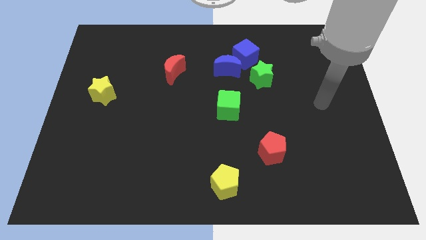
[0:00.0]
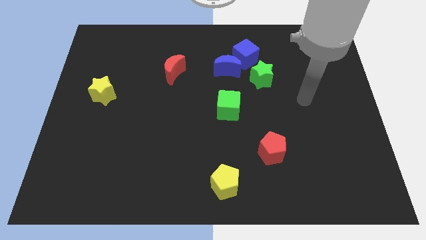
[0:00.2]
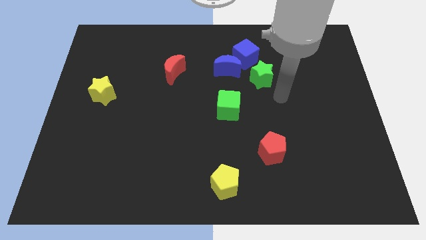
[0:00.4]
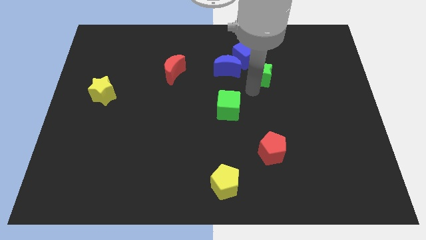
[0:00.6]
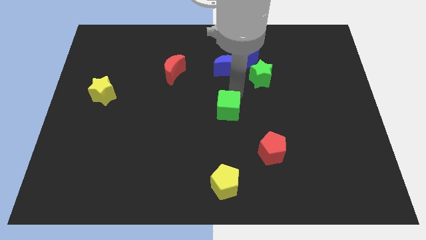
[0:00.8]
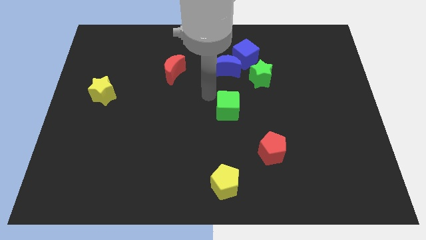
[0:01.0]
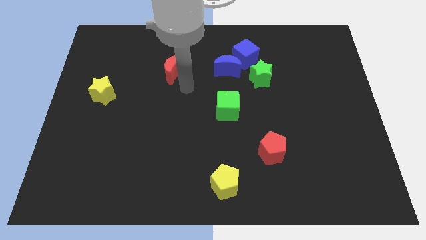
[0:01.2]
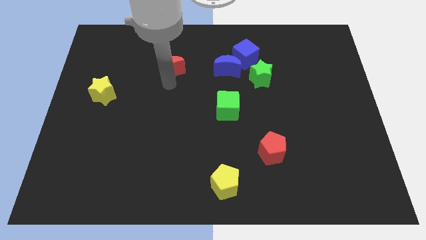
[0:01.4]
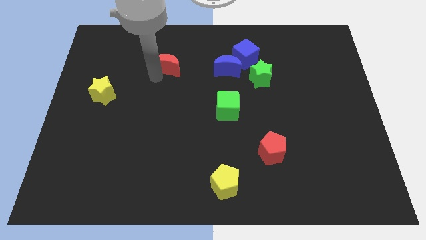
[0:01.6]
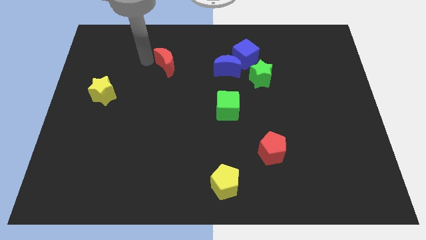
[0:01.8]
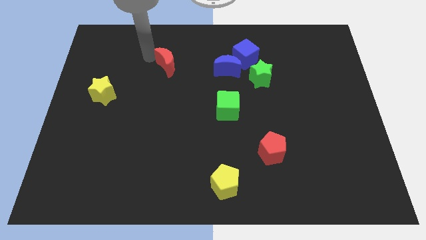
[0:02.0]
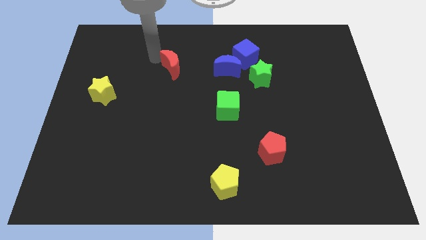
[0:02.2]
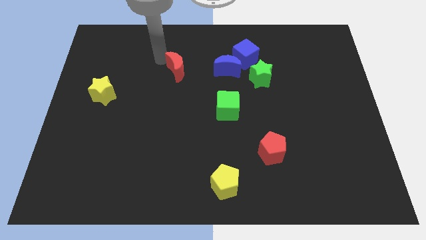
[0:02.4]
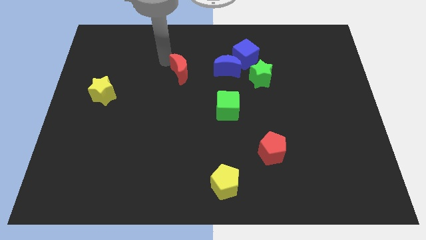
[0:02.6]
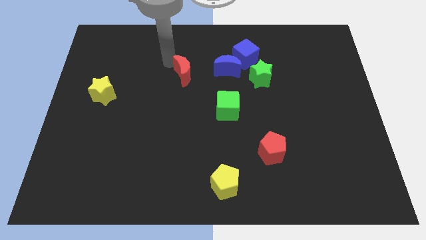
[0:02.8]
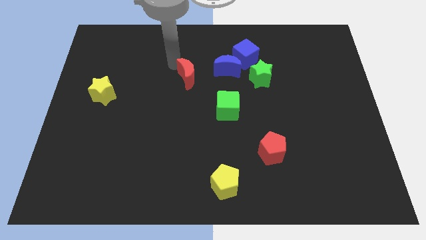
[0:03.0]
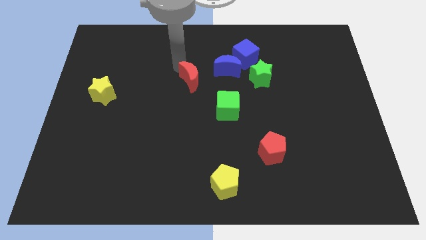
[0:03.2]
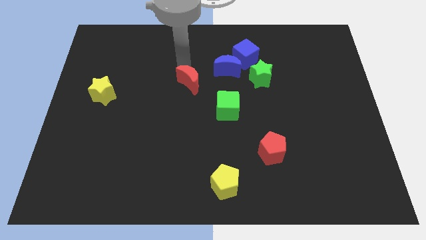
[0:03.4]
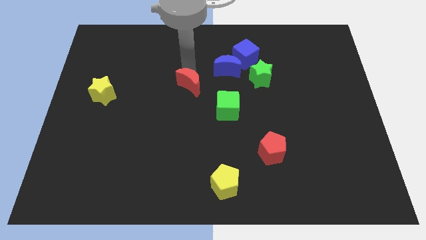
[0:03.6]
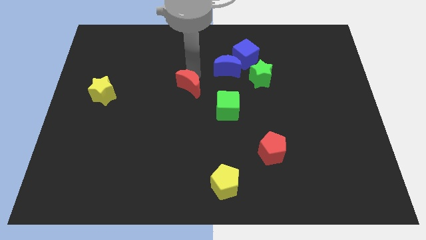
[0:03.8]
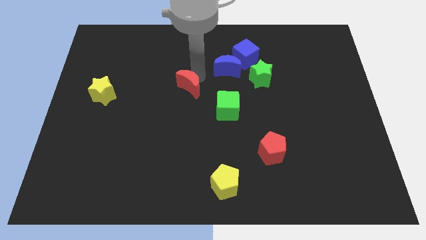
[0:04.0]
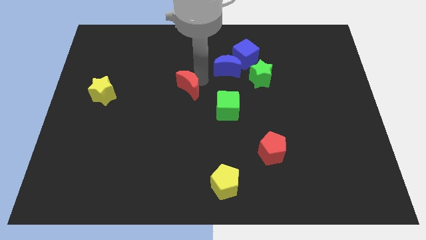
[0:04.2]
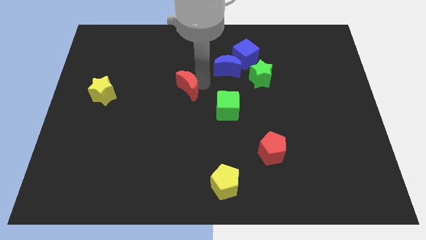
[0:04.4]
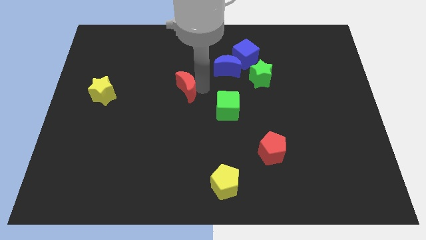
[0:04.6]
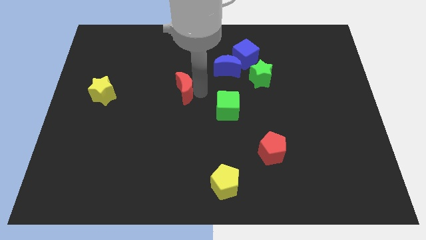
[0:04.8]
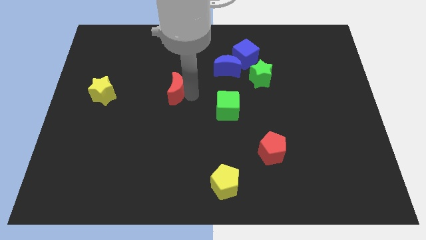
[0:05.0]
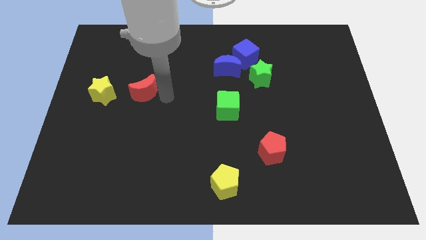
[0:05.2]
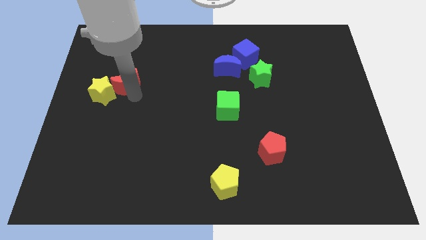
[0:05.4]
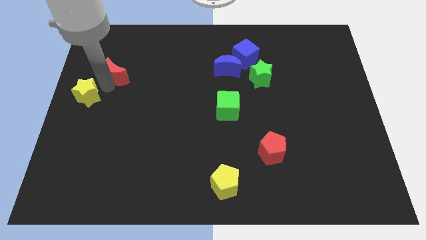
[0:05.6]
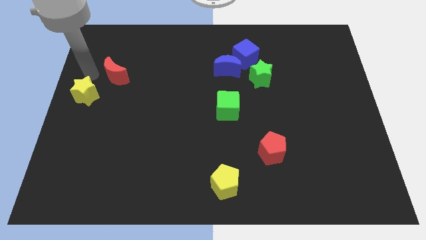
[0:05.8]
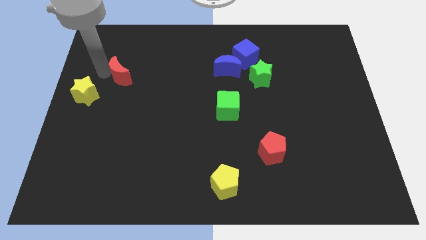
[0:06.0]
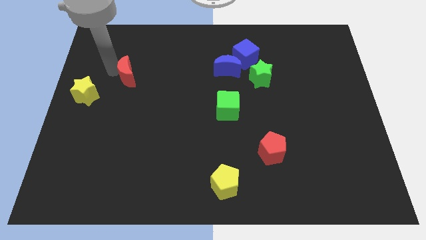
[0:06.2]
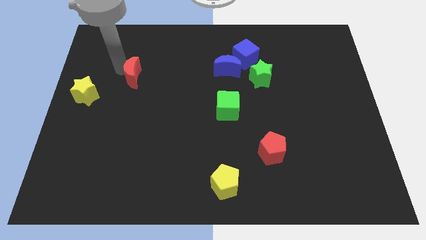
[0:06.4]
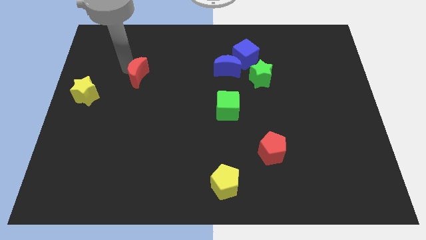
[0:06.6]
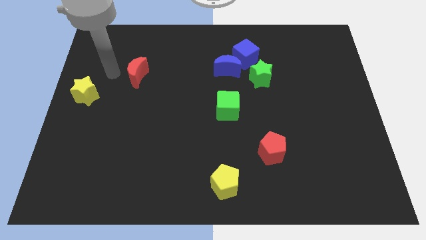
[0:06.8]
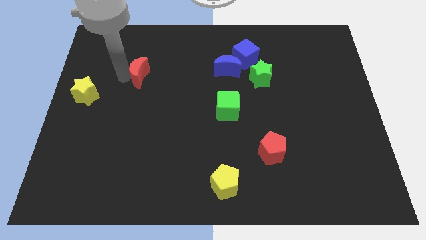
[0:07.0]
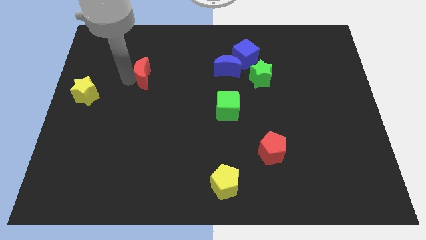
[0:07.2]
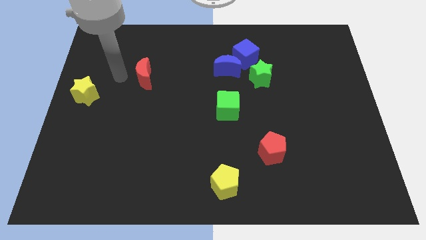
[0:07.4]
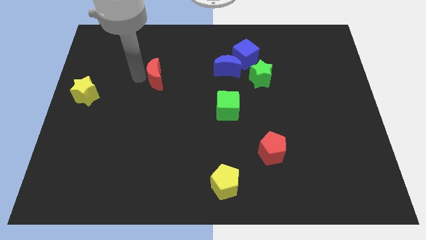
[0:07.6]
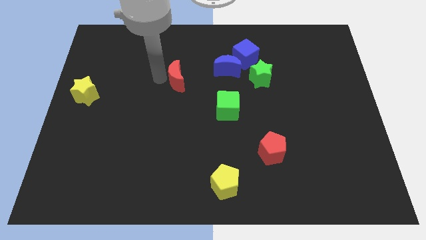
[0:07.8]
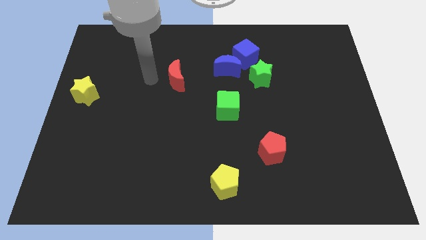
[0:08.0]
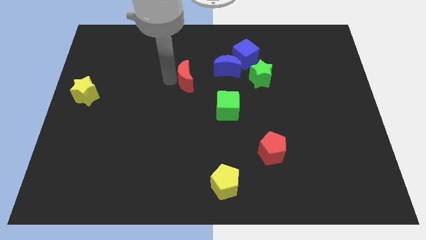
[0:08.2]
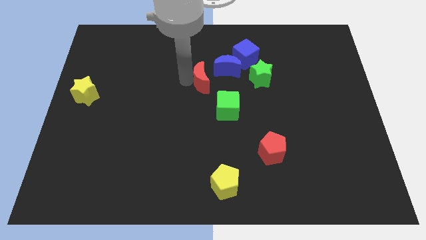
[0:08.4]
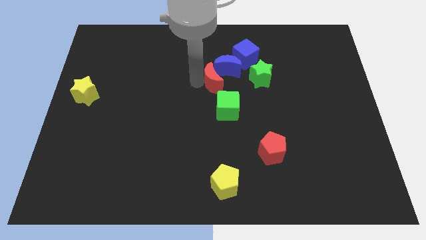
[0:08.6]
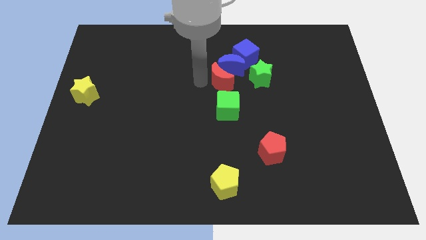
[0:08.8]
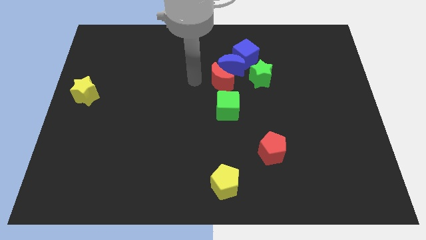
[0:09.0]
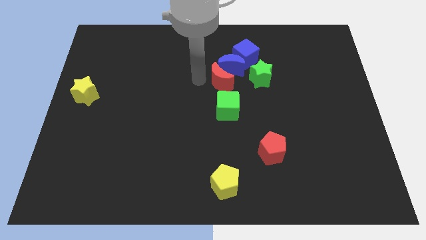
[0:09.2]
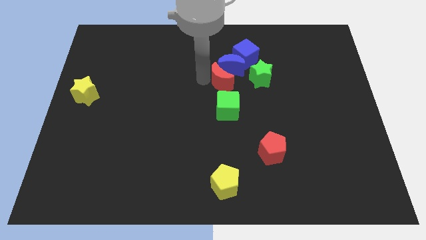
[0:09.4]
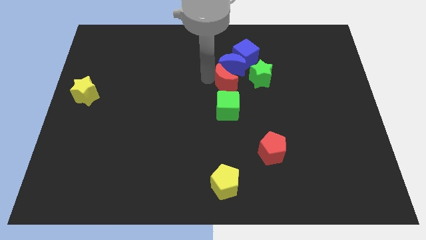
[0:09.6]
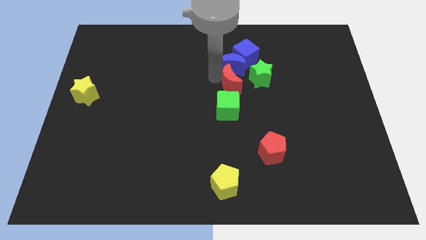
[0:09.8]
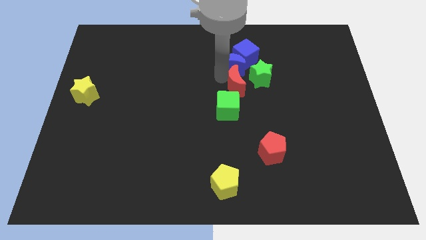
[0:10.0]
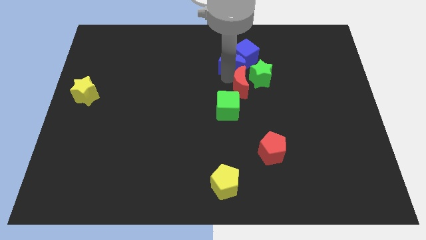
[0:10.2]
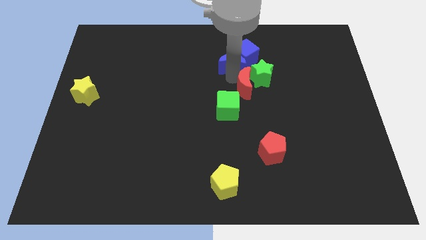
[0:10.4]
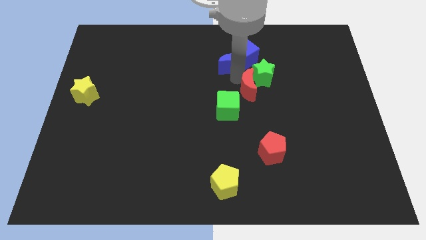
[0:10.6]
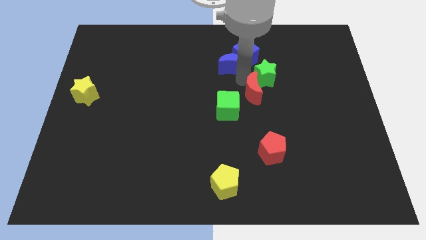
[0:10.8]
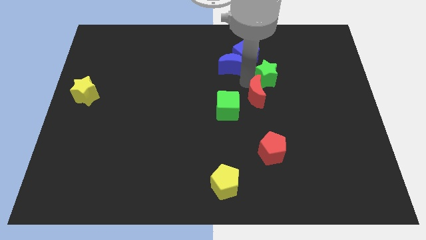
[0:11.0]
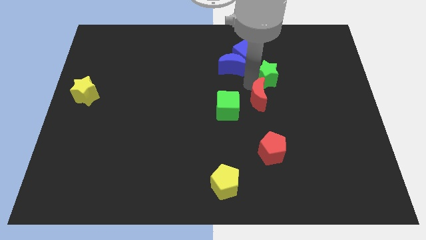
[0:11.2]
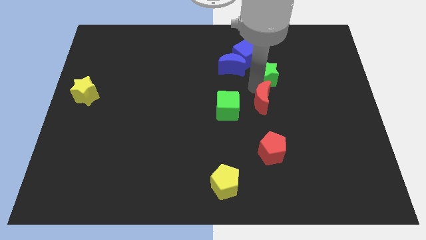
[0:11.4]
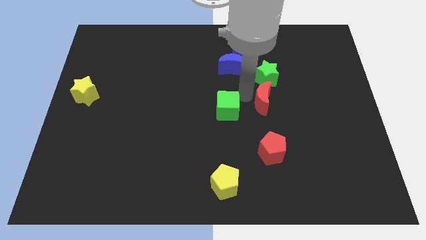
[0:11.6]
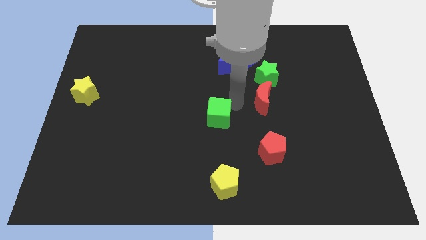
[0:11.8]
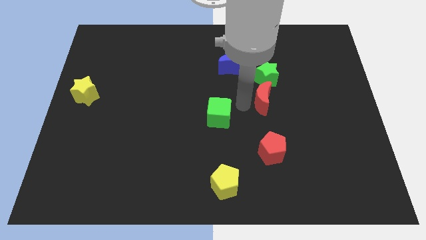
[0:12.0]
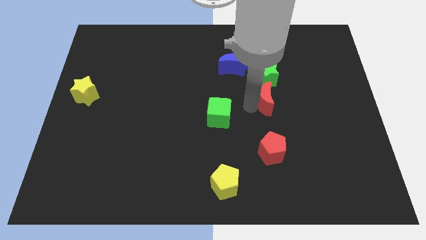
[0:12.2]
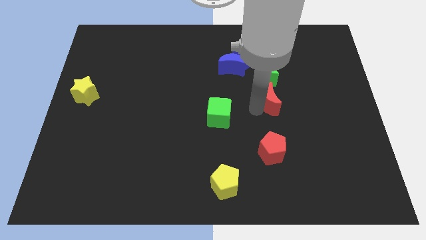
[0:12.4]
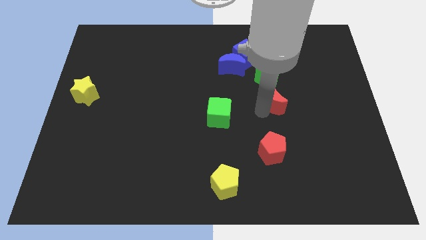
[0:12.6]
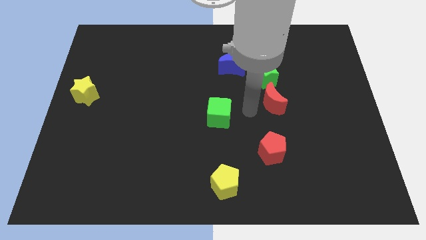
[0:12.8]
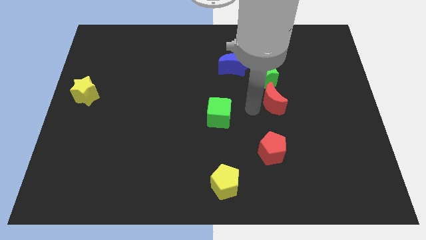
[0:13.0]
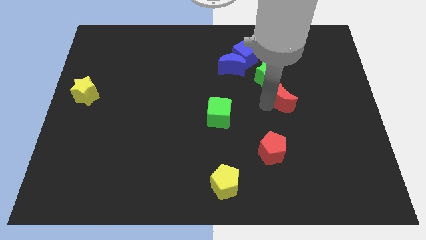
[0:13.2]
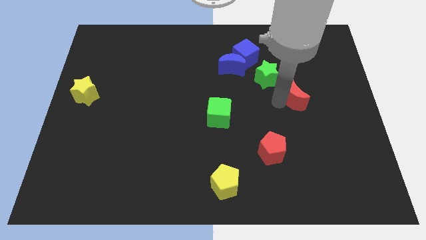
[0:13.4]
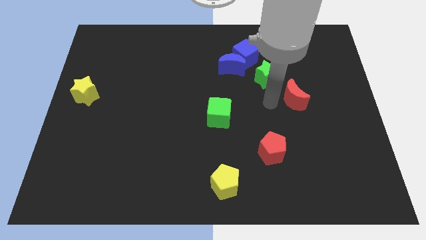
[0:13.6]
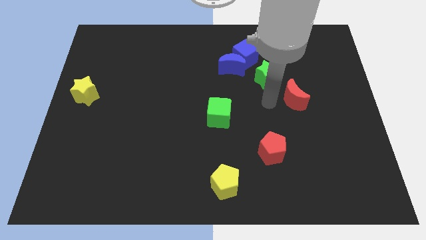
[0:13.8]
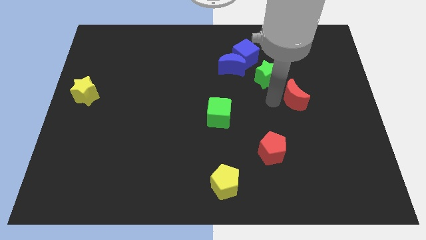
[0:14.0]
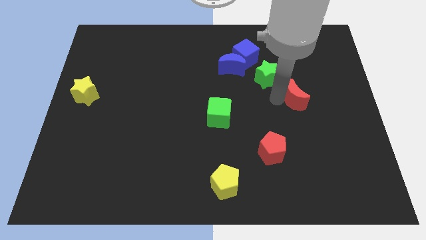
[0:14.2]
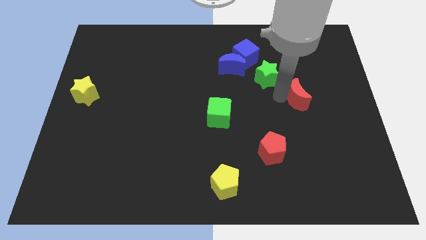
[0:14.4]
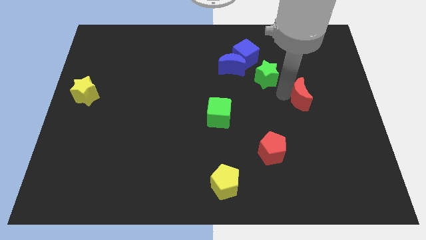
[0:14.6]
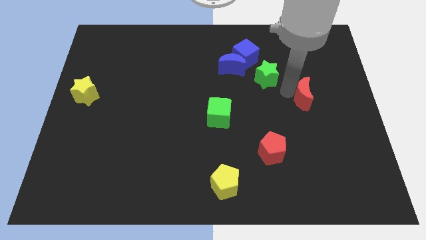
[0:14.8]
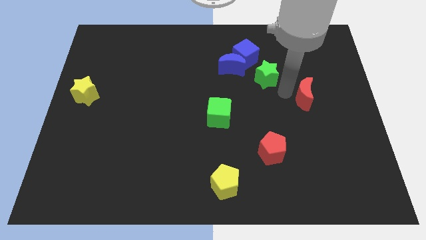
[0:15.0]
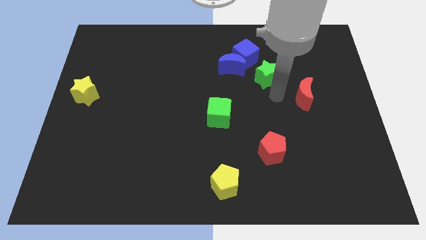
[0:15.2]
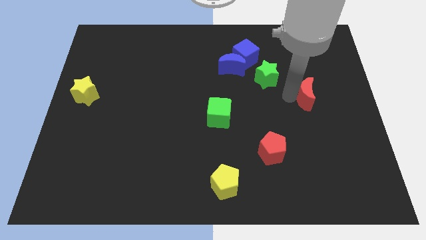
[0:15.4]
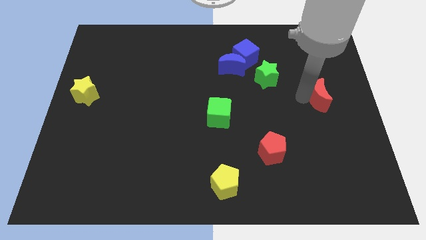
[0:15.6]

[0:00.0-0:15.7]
slide the red moon to the right side of the board
